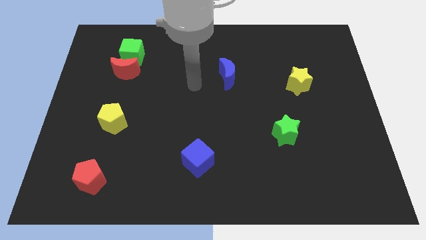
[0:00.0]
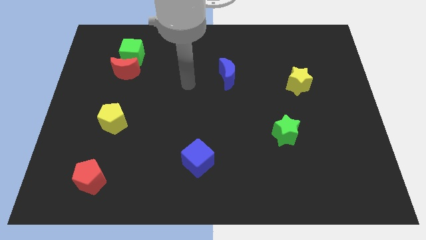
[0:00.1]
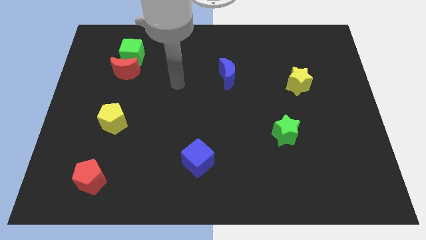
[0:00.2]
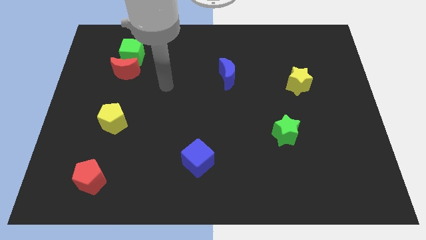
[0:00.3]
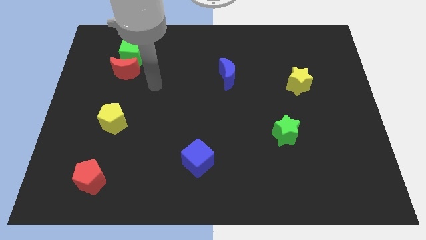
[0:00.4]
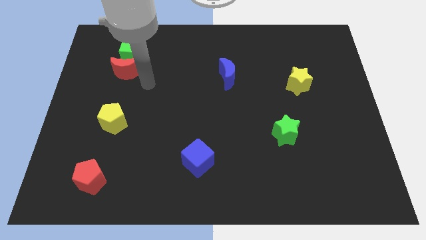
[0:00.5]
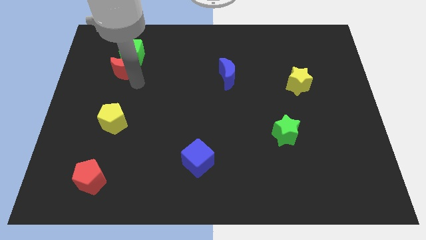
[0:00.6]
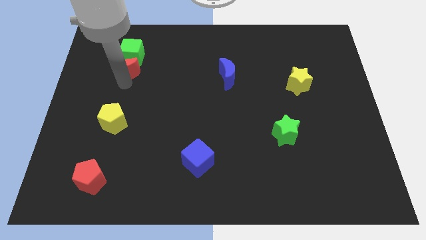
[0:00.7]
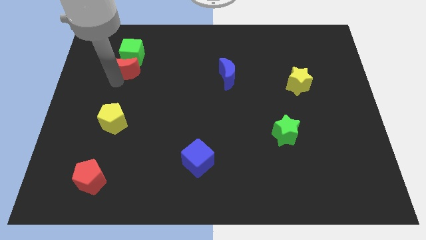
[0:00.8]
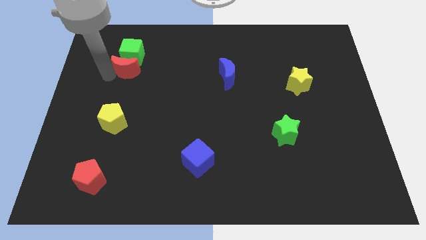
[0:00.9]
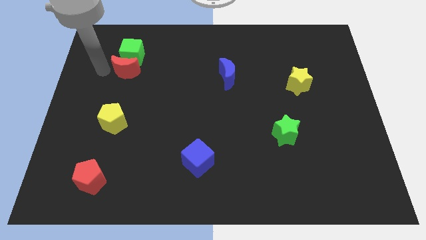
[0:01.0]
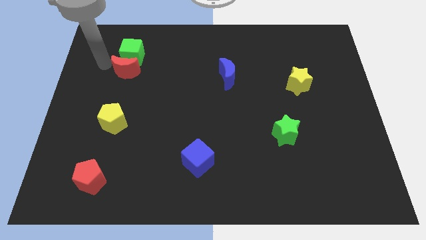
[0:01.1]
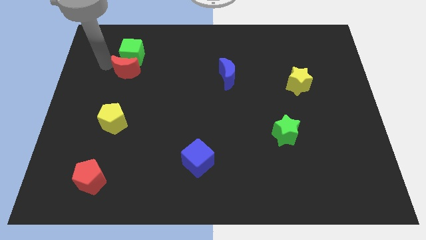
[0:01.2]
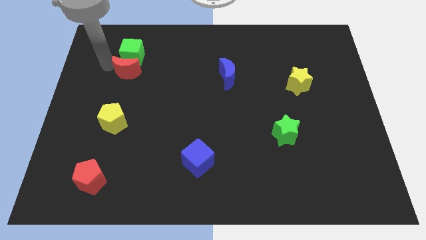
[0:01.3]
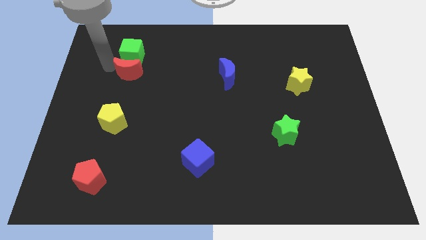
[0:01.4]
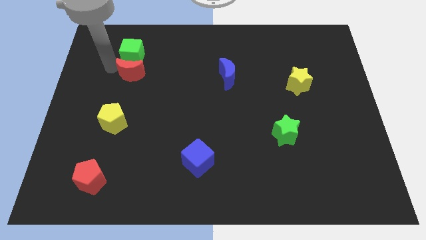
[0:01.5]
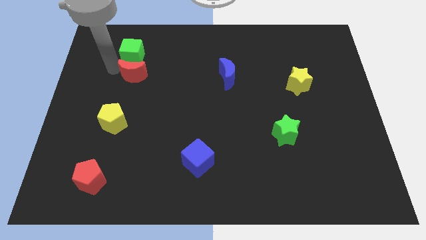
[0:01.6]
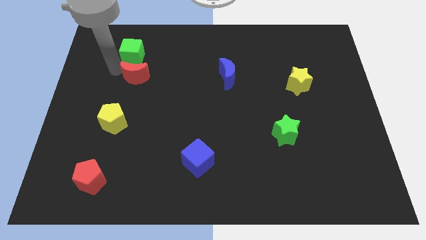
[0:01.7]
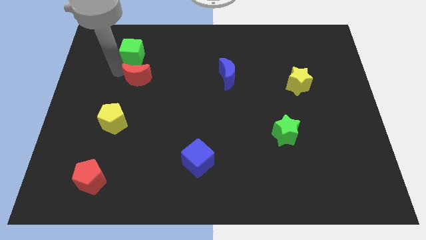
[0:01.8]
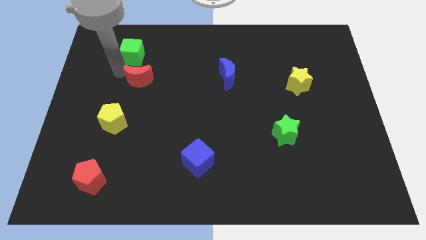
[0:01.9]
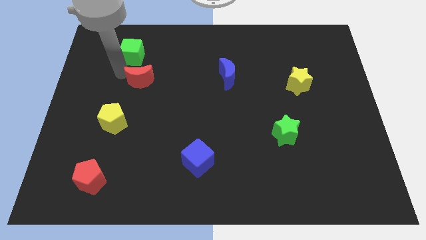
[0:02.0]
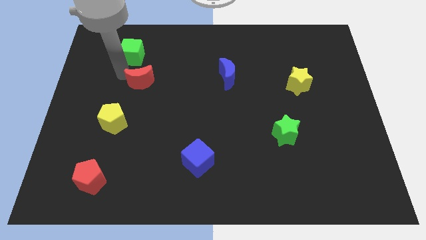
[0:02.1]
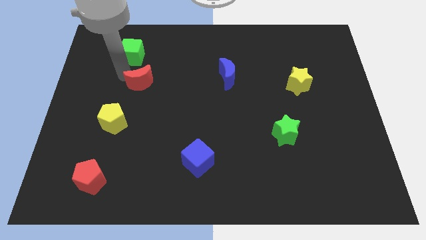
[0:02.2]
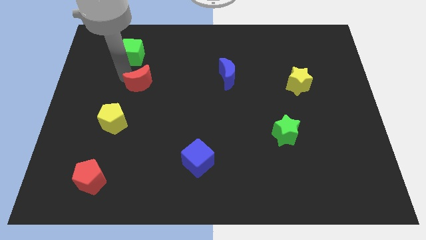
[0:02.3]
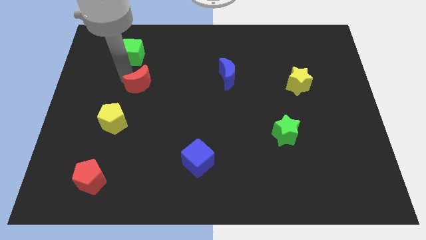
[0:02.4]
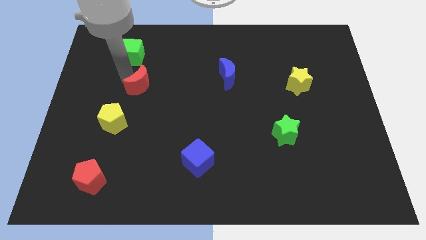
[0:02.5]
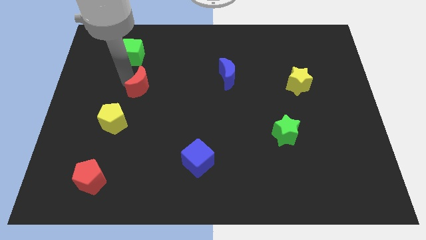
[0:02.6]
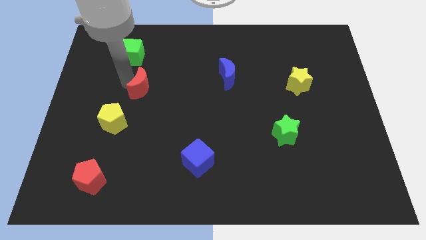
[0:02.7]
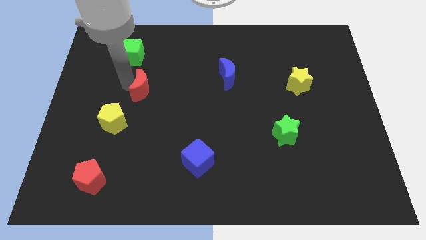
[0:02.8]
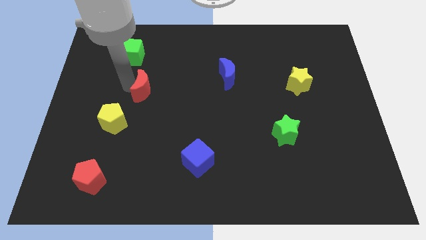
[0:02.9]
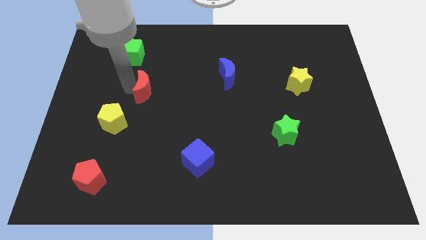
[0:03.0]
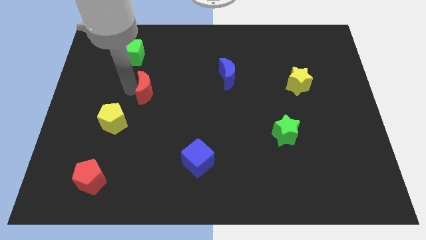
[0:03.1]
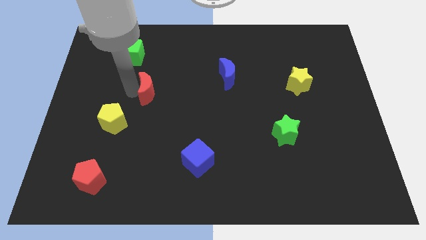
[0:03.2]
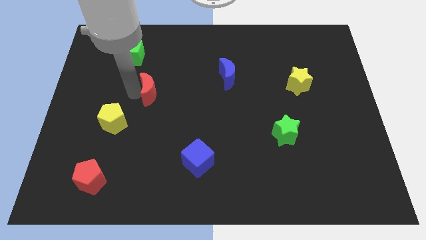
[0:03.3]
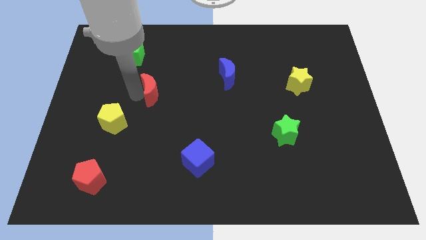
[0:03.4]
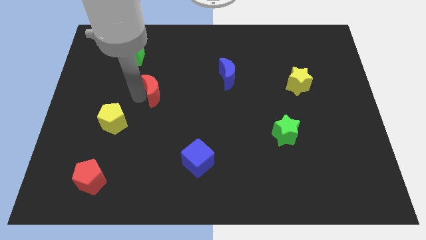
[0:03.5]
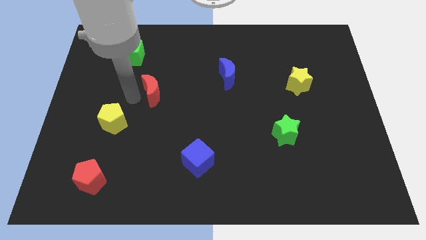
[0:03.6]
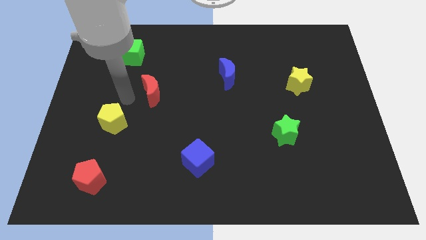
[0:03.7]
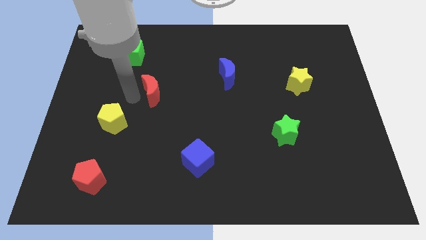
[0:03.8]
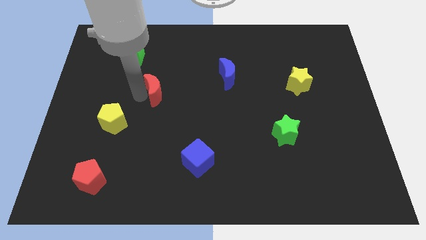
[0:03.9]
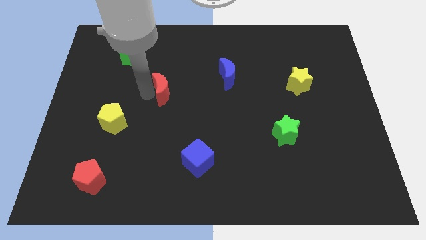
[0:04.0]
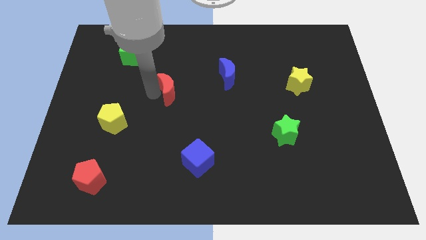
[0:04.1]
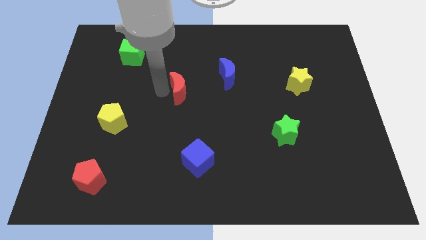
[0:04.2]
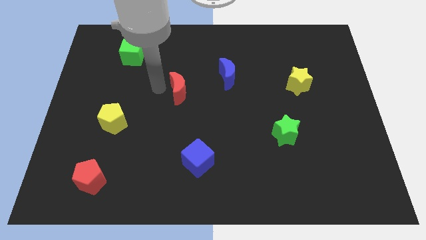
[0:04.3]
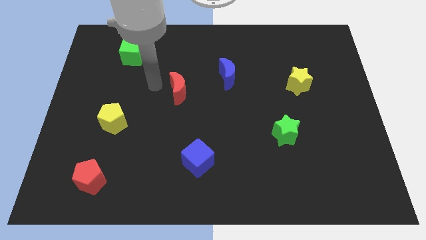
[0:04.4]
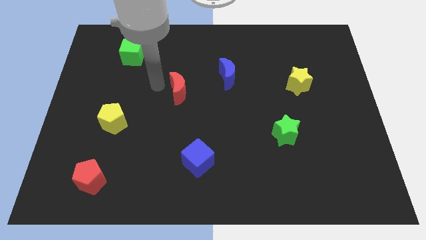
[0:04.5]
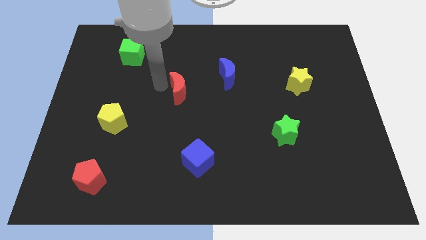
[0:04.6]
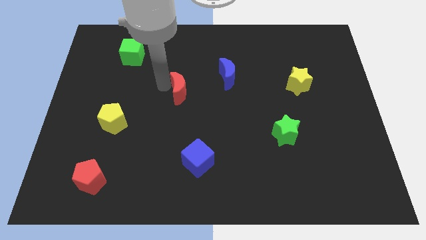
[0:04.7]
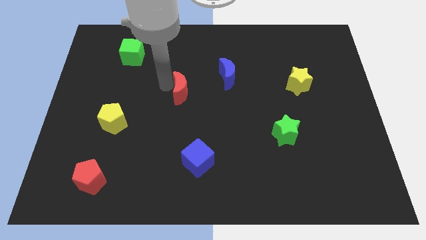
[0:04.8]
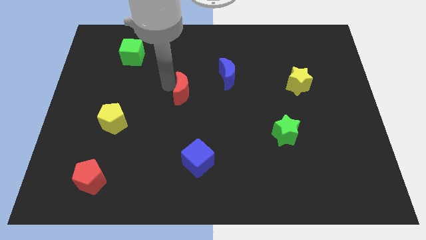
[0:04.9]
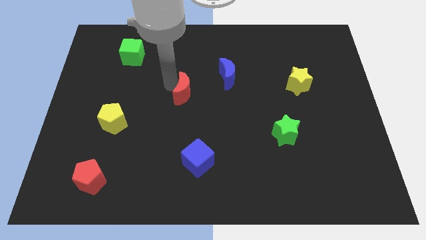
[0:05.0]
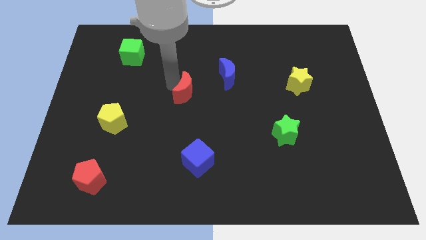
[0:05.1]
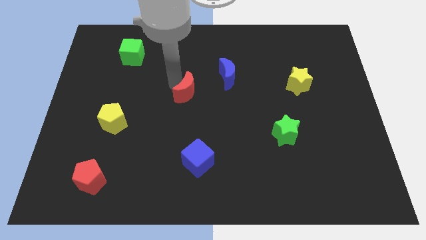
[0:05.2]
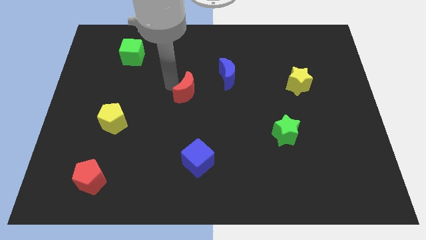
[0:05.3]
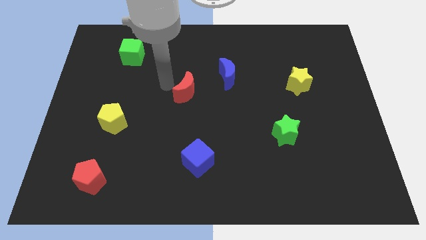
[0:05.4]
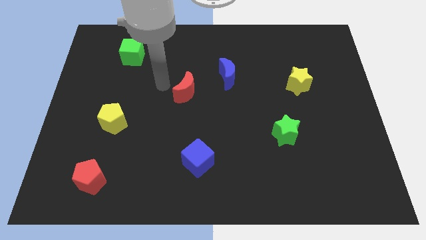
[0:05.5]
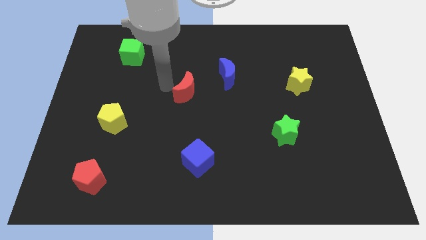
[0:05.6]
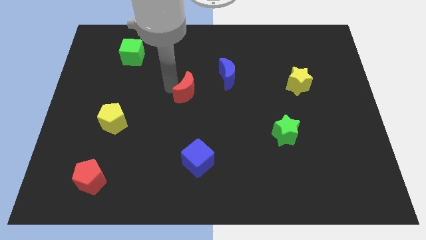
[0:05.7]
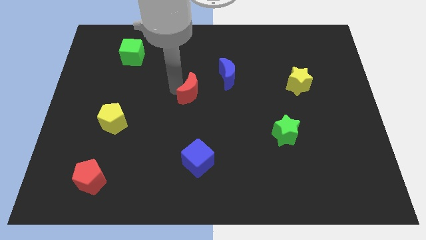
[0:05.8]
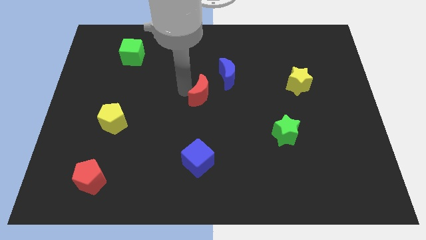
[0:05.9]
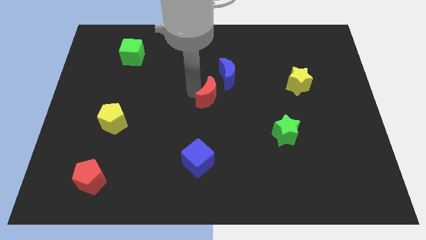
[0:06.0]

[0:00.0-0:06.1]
put the red moon below the blue moon

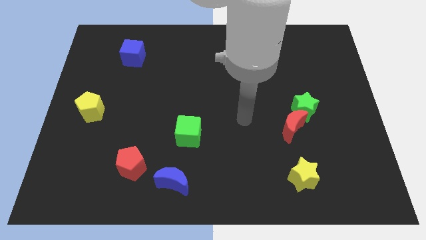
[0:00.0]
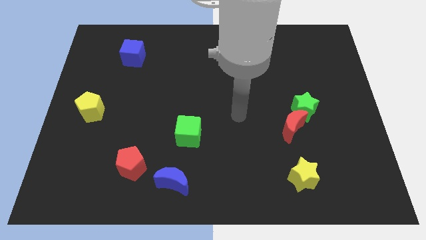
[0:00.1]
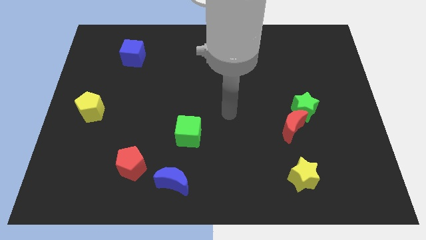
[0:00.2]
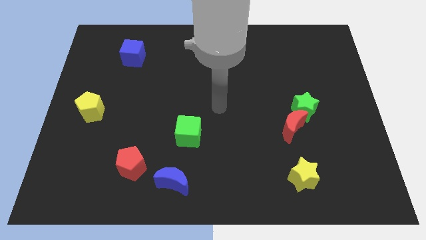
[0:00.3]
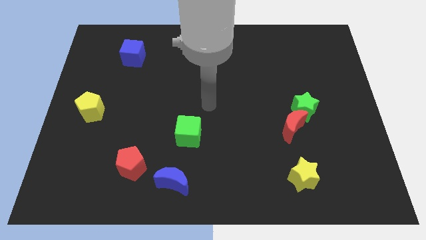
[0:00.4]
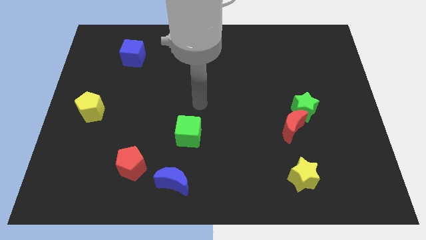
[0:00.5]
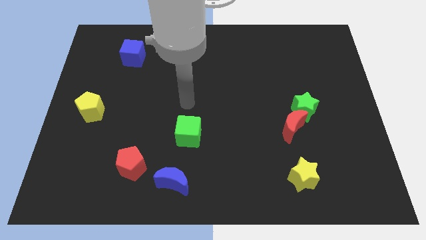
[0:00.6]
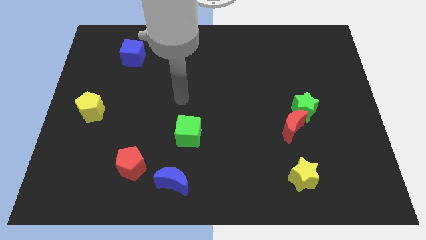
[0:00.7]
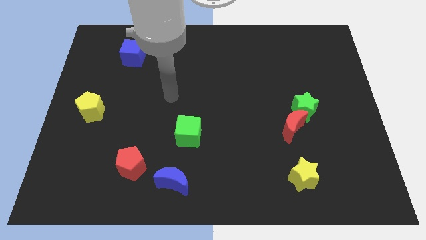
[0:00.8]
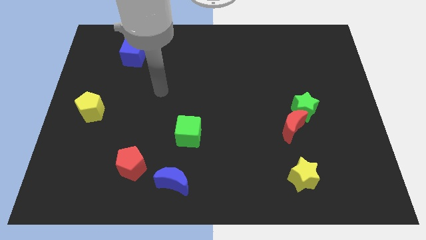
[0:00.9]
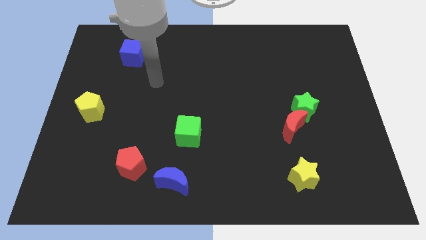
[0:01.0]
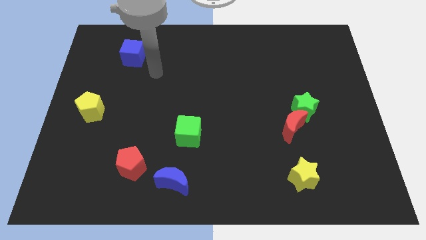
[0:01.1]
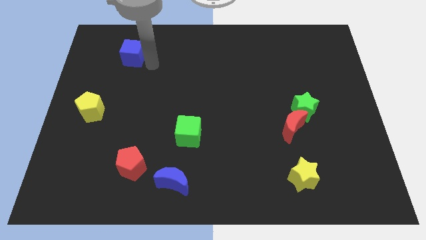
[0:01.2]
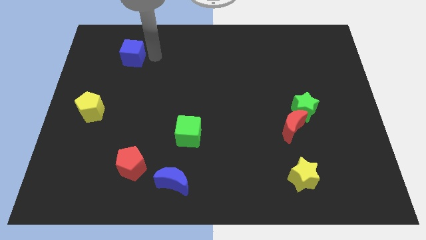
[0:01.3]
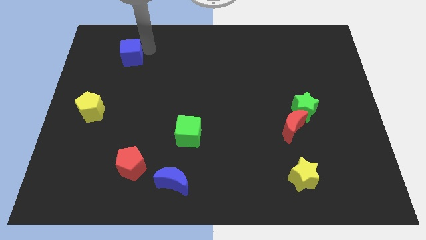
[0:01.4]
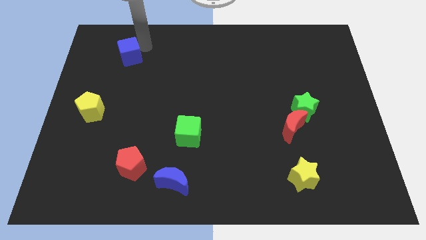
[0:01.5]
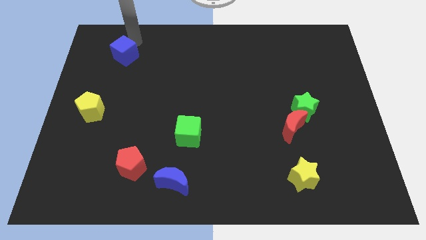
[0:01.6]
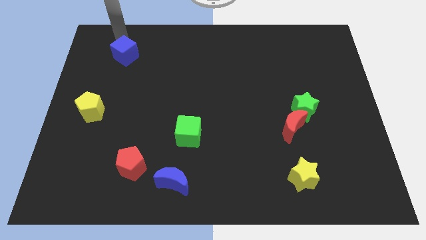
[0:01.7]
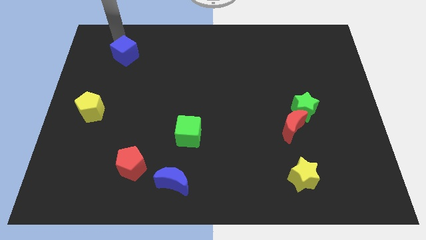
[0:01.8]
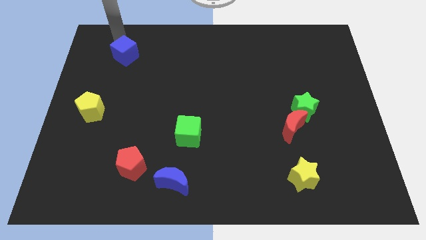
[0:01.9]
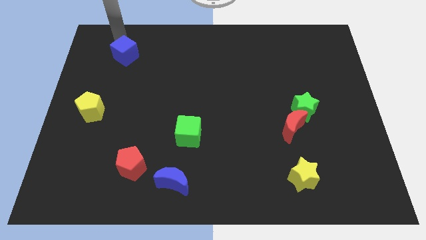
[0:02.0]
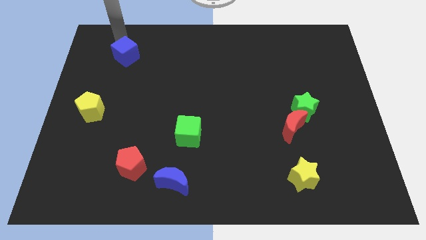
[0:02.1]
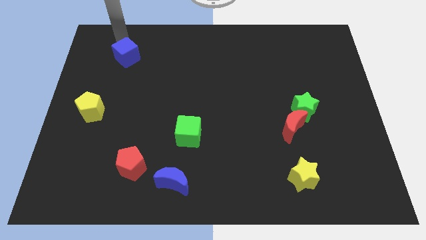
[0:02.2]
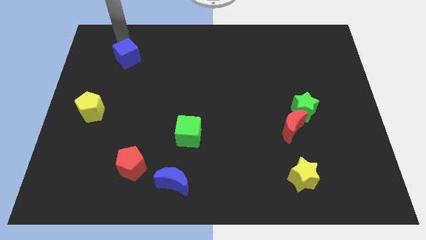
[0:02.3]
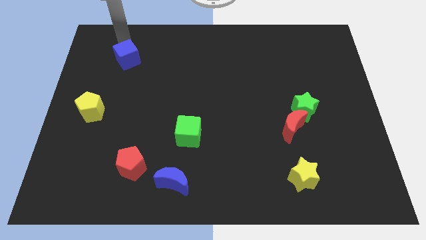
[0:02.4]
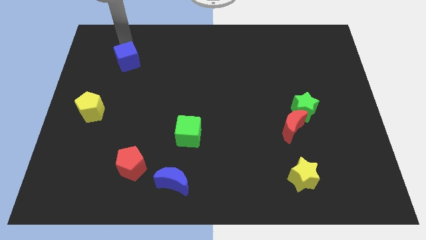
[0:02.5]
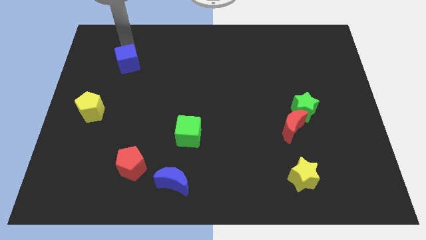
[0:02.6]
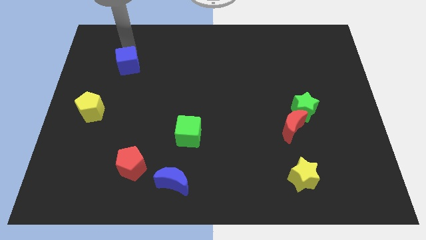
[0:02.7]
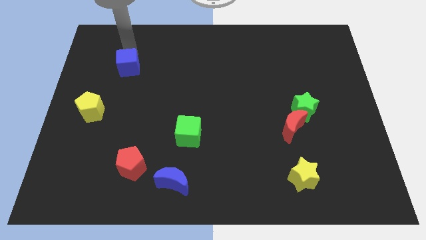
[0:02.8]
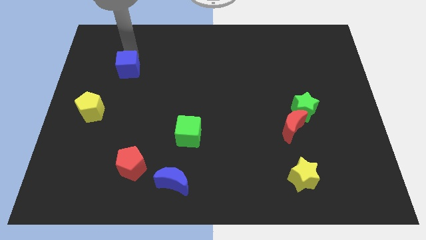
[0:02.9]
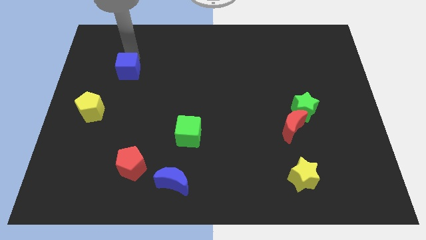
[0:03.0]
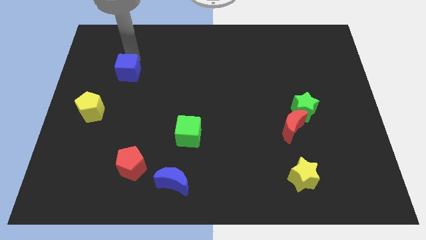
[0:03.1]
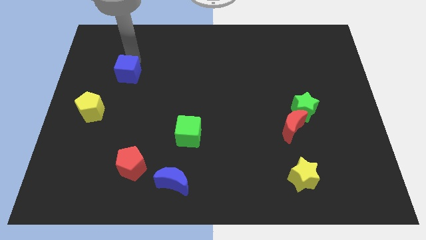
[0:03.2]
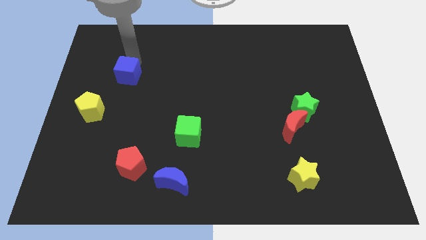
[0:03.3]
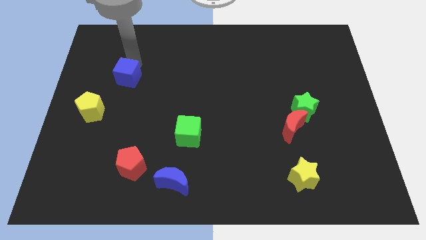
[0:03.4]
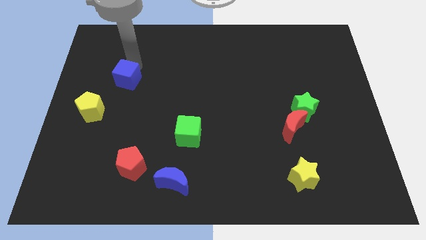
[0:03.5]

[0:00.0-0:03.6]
put the blue cube diagonally up and to the right of the yellow pentagon
